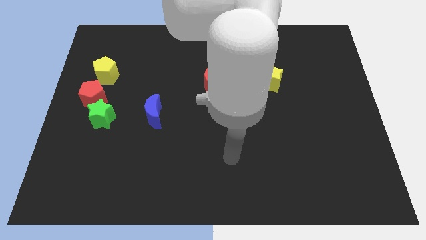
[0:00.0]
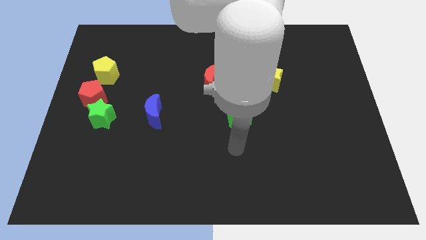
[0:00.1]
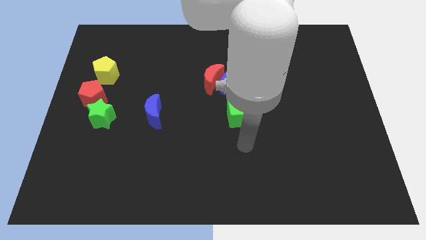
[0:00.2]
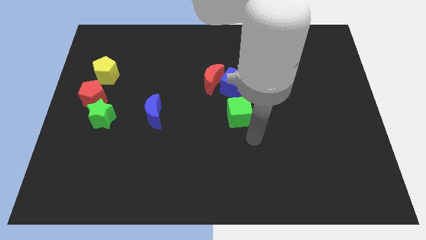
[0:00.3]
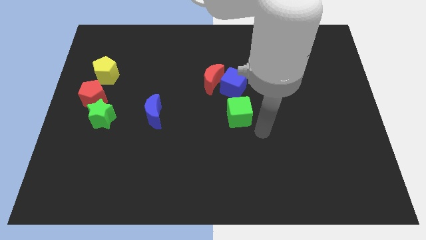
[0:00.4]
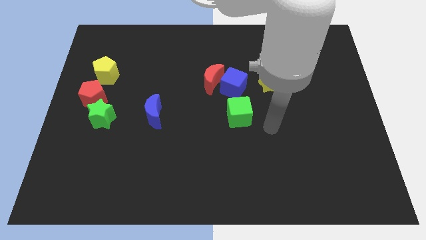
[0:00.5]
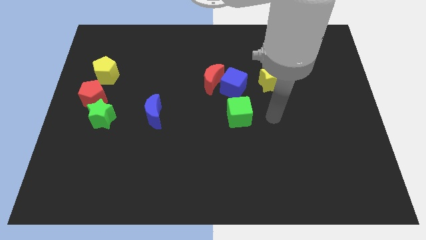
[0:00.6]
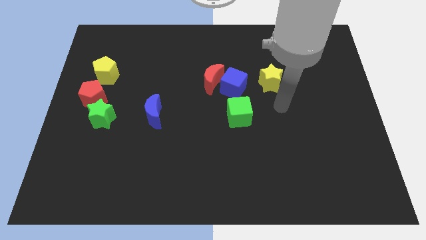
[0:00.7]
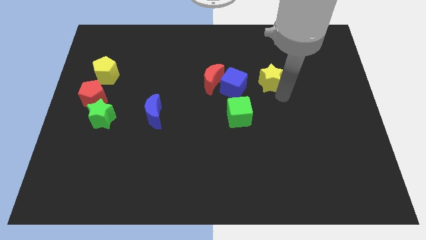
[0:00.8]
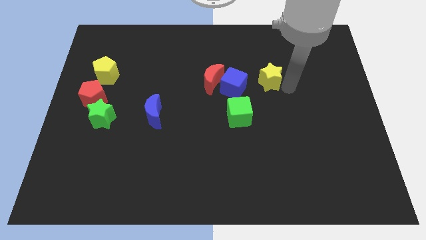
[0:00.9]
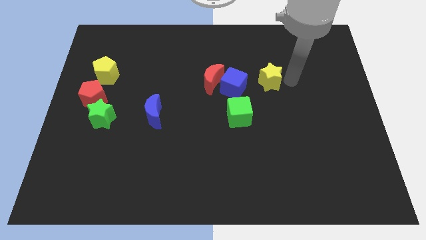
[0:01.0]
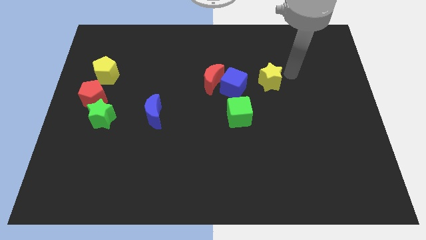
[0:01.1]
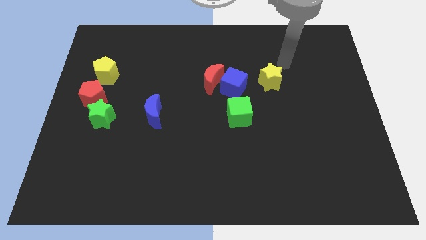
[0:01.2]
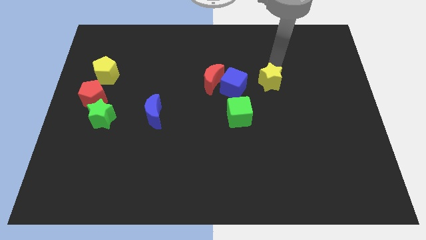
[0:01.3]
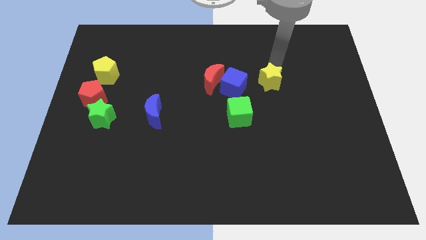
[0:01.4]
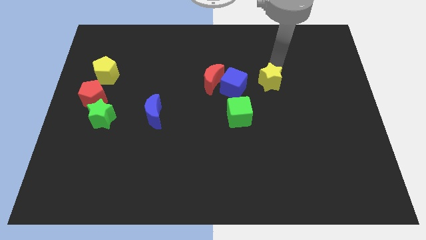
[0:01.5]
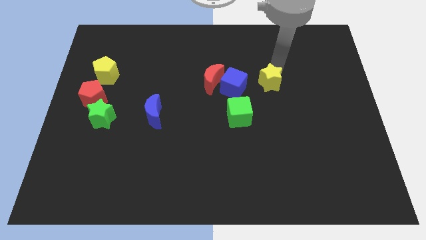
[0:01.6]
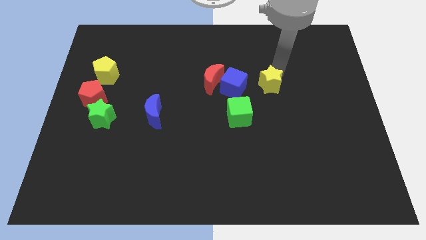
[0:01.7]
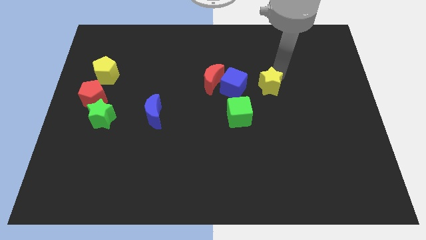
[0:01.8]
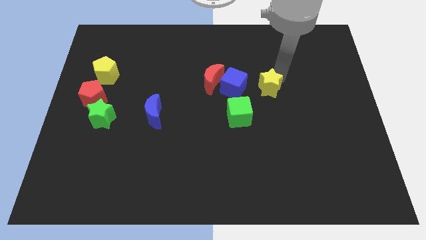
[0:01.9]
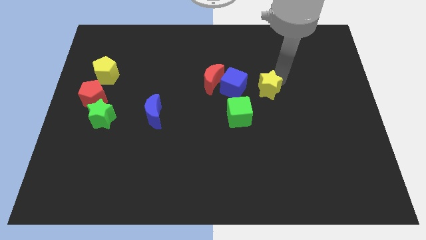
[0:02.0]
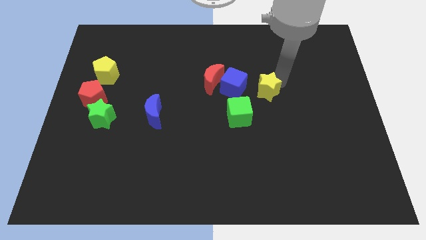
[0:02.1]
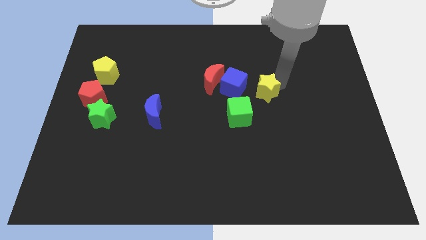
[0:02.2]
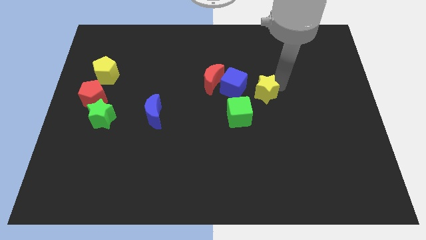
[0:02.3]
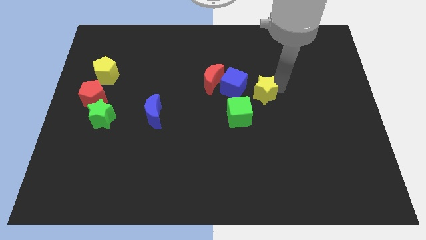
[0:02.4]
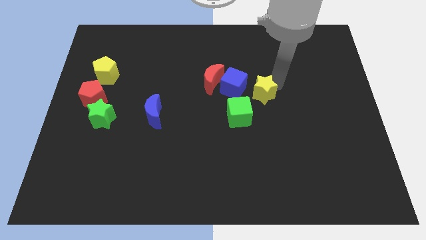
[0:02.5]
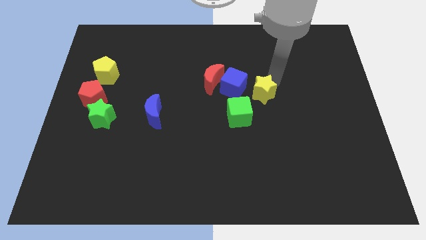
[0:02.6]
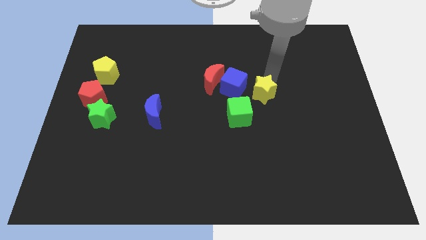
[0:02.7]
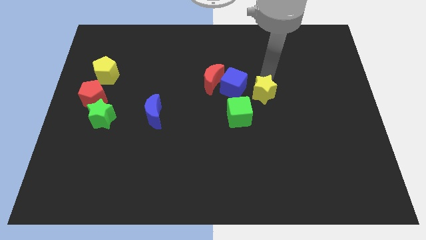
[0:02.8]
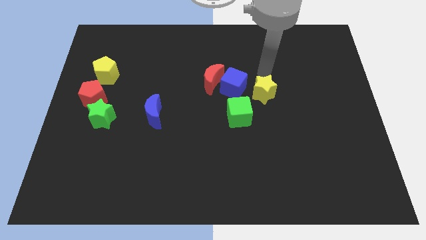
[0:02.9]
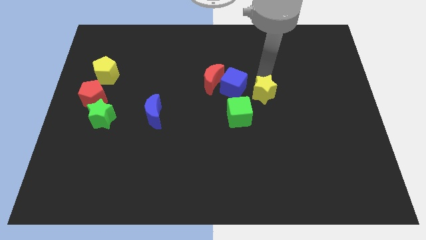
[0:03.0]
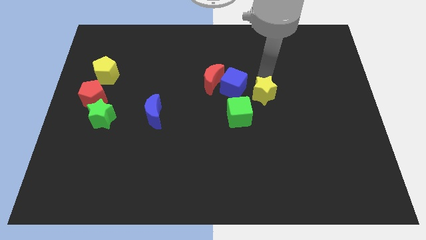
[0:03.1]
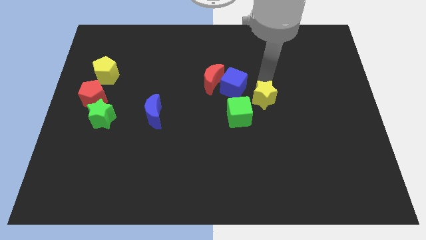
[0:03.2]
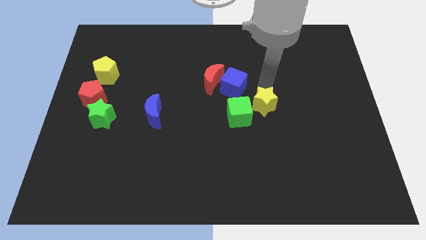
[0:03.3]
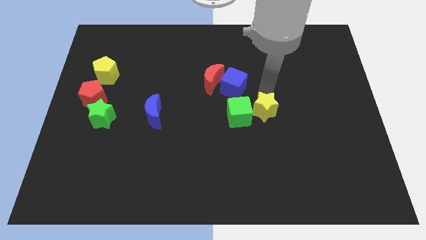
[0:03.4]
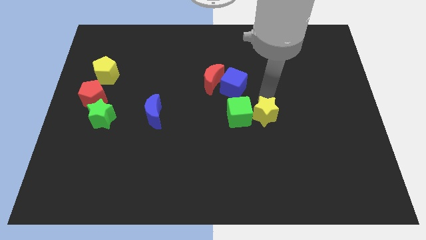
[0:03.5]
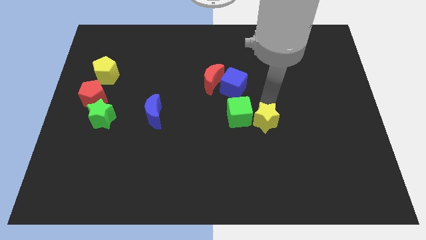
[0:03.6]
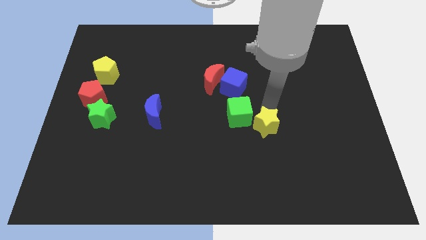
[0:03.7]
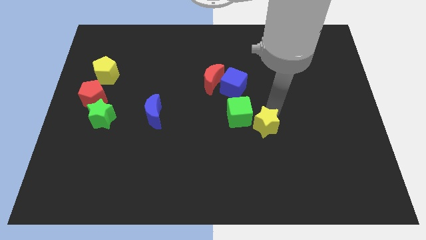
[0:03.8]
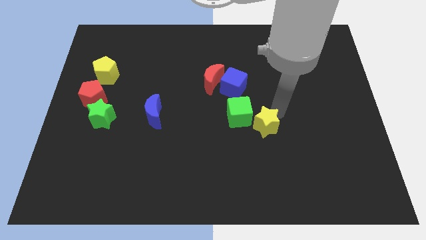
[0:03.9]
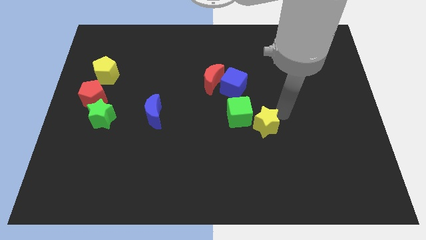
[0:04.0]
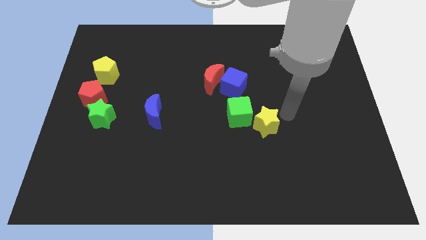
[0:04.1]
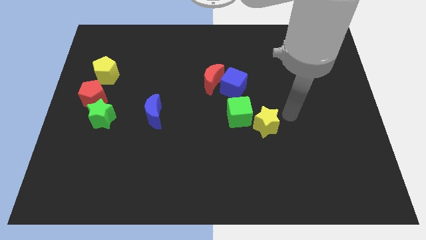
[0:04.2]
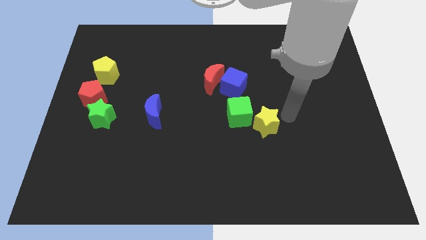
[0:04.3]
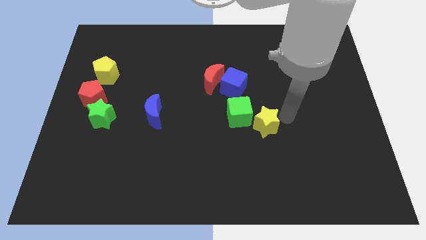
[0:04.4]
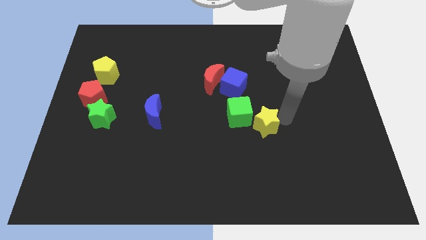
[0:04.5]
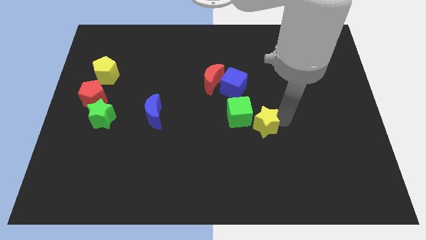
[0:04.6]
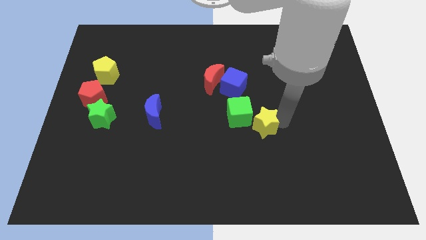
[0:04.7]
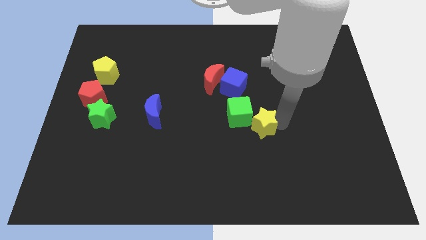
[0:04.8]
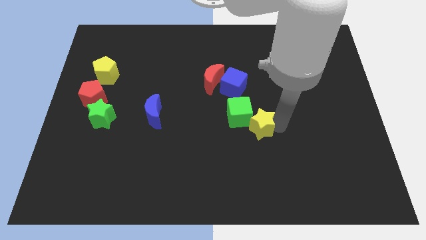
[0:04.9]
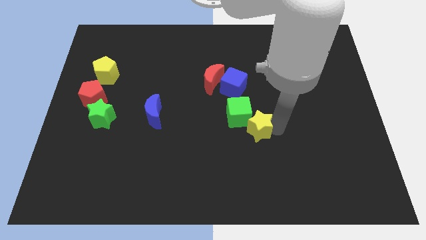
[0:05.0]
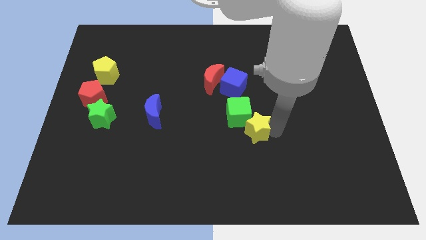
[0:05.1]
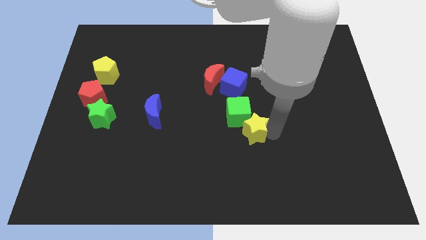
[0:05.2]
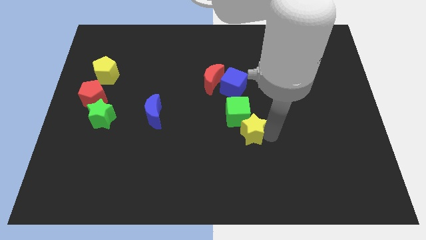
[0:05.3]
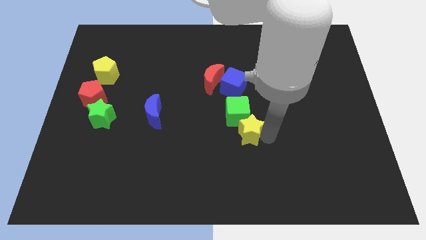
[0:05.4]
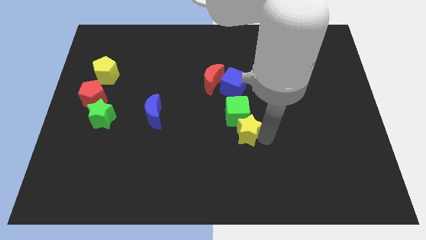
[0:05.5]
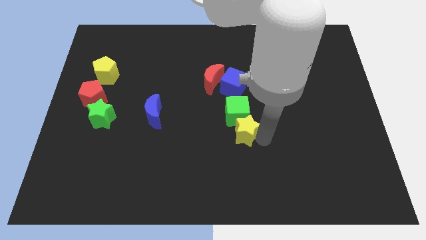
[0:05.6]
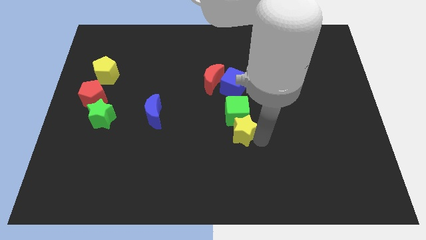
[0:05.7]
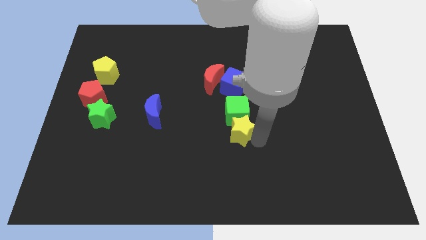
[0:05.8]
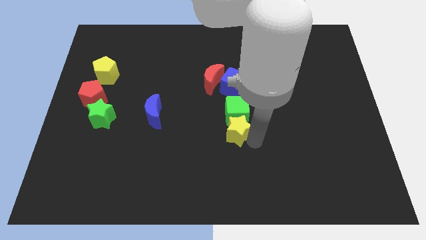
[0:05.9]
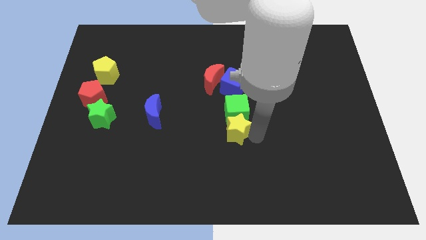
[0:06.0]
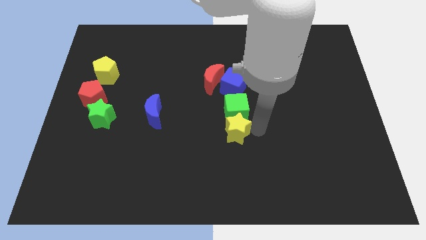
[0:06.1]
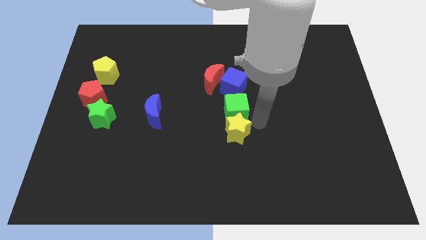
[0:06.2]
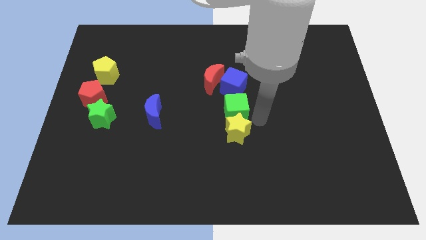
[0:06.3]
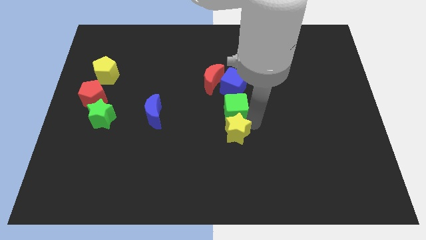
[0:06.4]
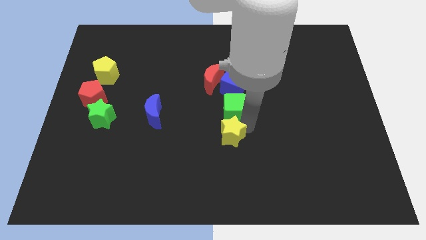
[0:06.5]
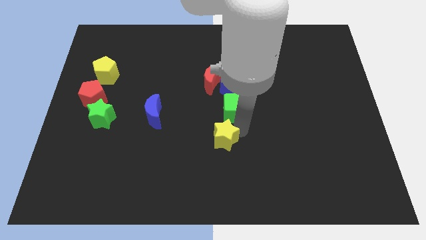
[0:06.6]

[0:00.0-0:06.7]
move the yellow star down and left diagonally

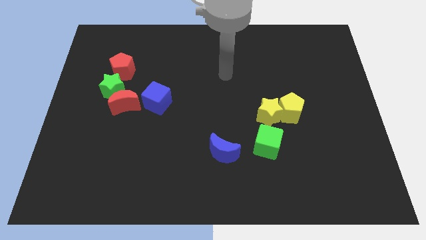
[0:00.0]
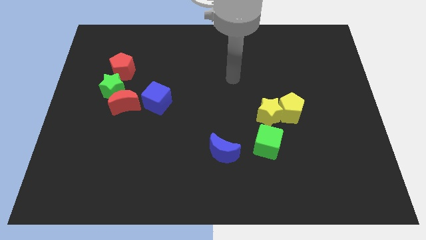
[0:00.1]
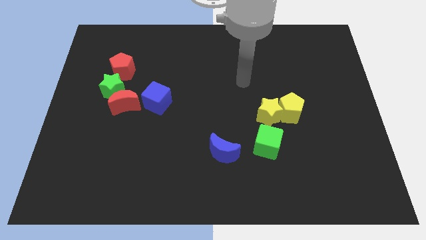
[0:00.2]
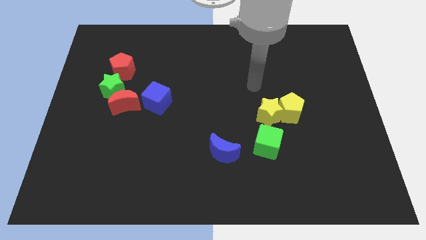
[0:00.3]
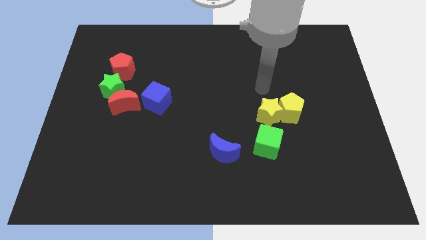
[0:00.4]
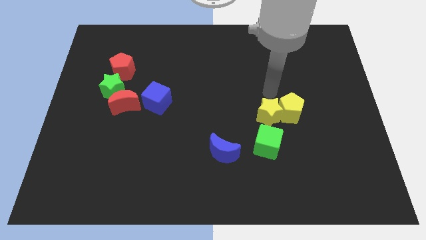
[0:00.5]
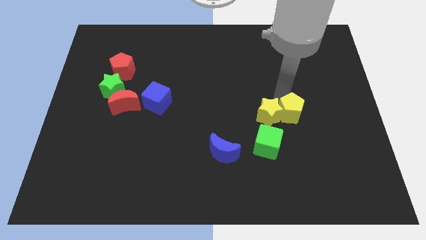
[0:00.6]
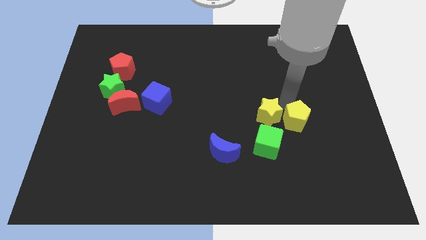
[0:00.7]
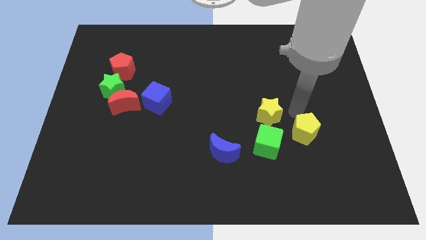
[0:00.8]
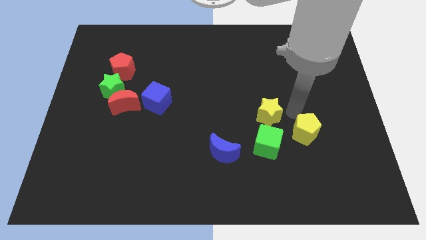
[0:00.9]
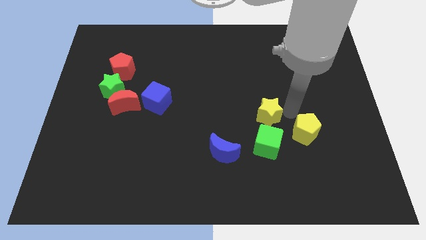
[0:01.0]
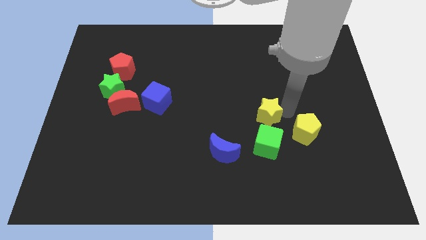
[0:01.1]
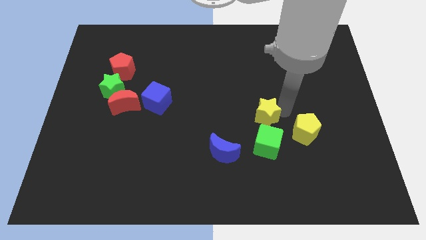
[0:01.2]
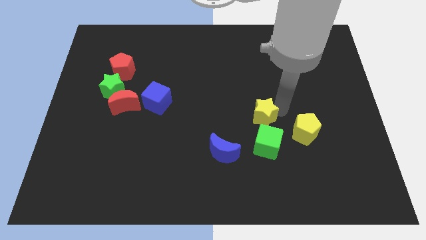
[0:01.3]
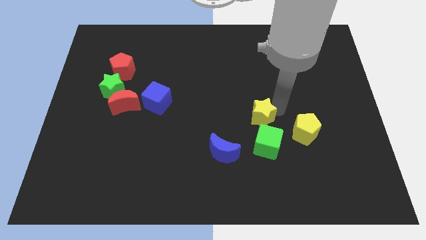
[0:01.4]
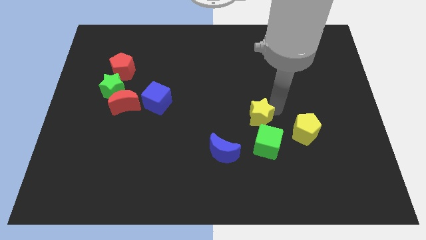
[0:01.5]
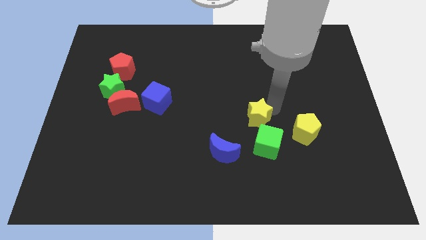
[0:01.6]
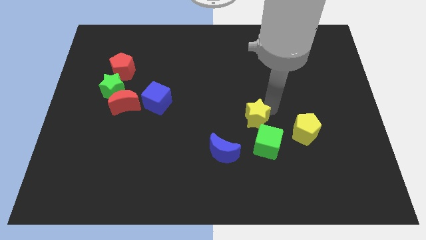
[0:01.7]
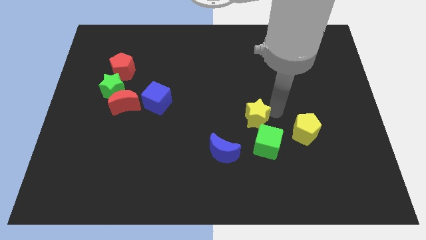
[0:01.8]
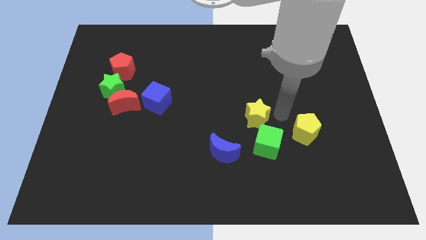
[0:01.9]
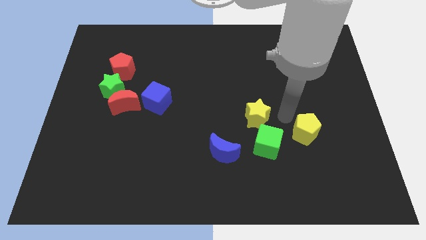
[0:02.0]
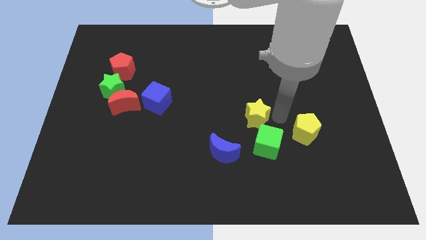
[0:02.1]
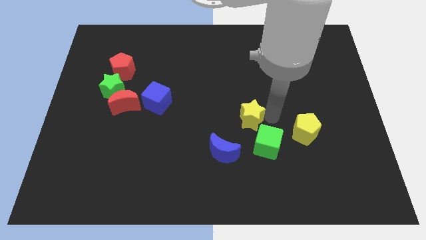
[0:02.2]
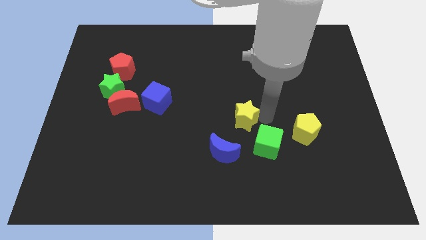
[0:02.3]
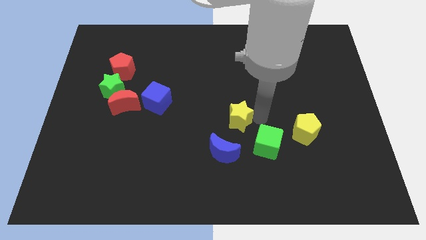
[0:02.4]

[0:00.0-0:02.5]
slide the yellow star a little left
